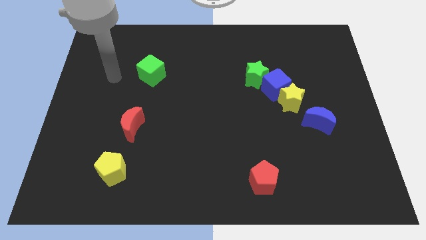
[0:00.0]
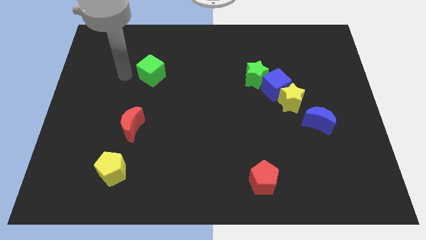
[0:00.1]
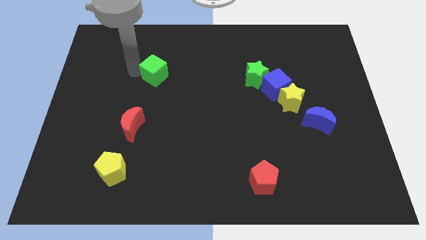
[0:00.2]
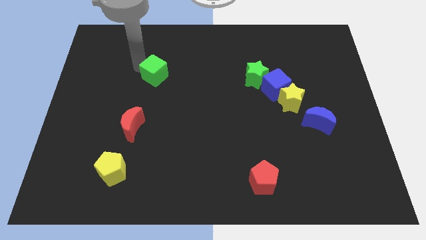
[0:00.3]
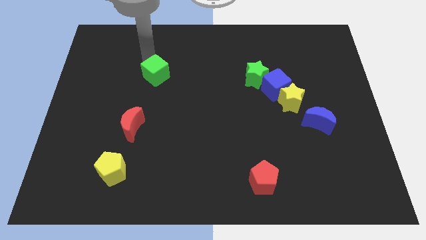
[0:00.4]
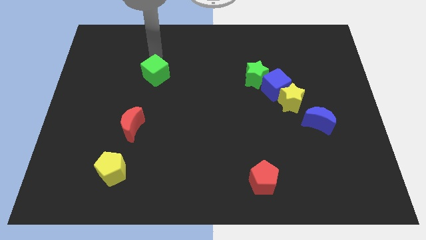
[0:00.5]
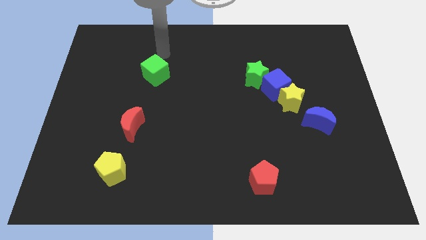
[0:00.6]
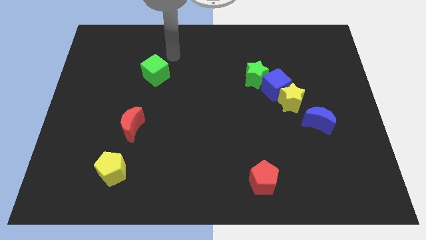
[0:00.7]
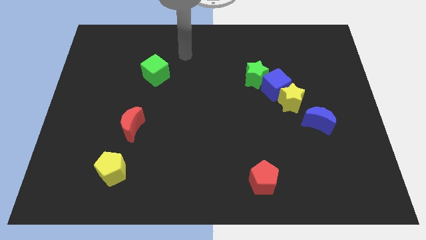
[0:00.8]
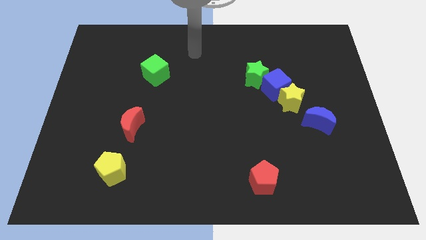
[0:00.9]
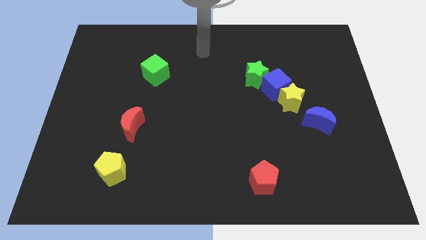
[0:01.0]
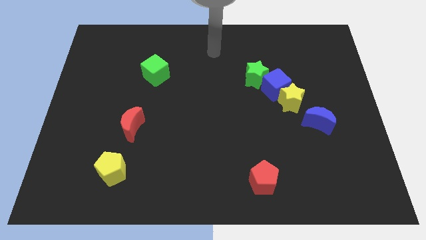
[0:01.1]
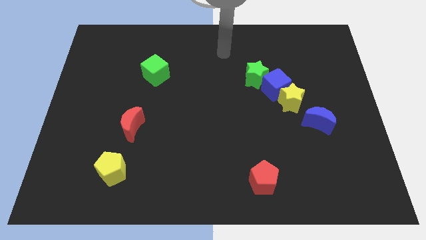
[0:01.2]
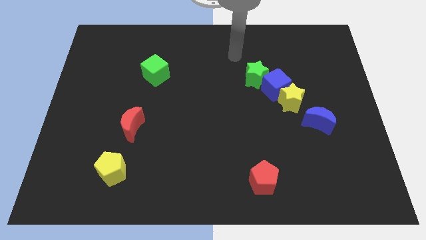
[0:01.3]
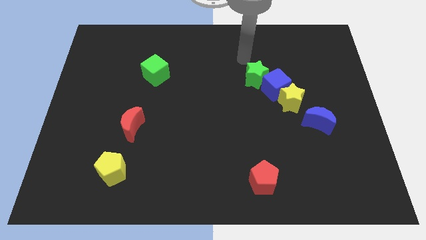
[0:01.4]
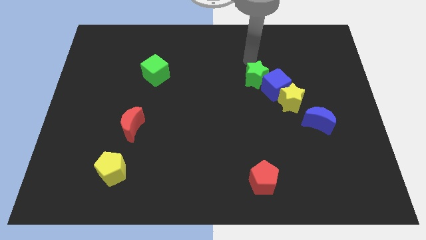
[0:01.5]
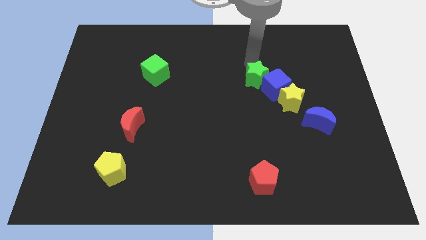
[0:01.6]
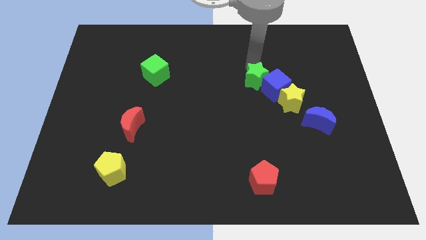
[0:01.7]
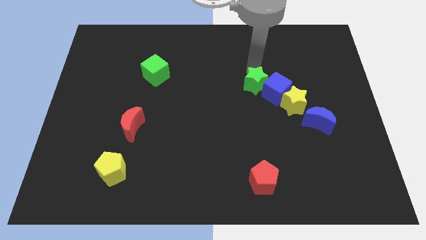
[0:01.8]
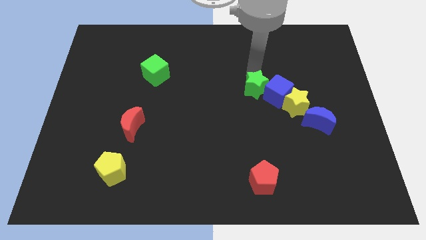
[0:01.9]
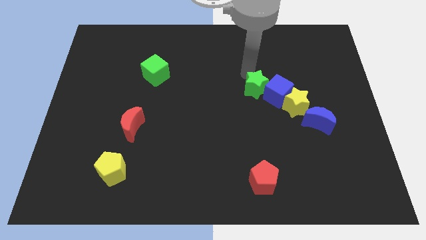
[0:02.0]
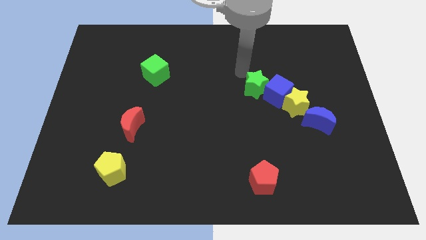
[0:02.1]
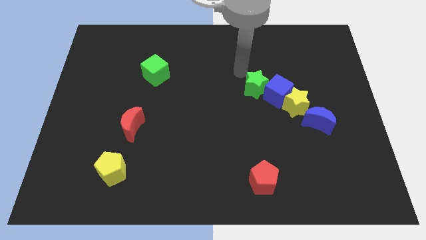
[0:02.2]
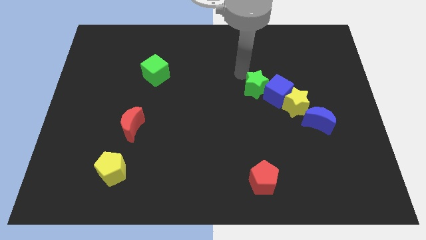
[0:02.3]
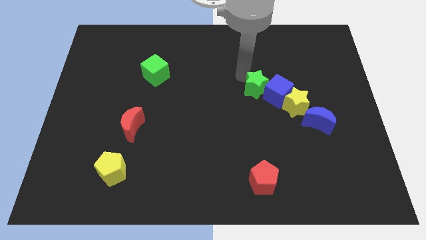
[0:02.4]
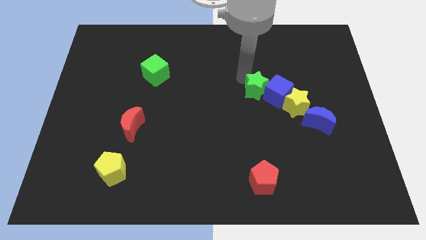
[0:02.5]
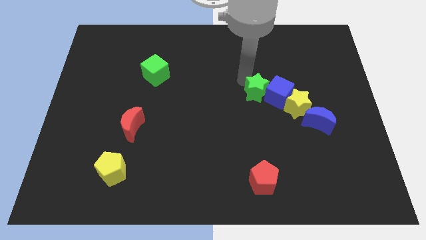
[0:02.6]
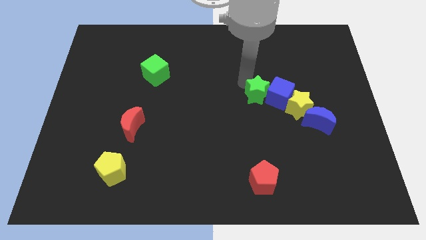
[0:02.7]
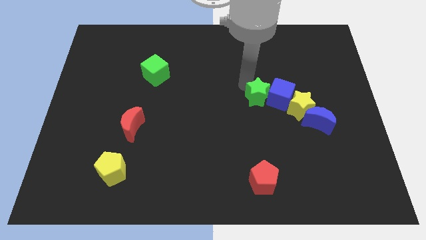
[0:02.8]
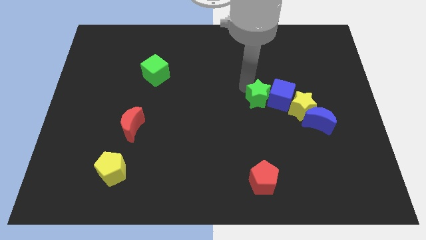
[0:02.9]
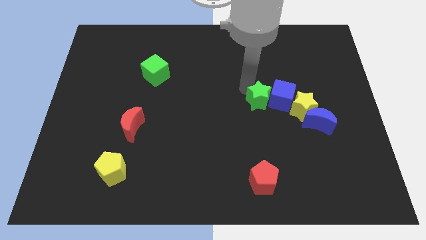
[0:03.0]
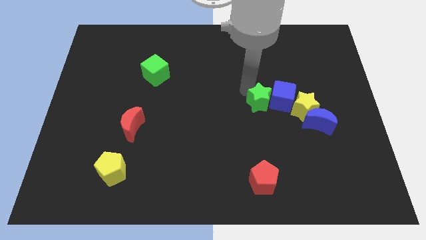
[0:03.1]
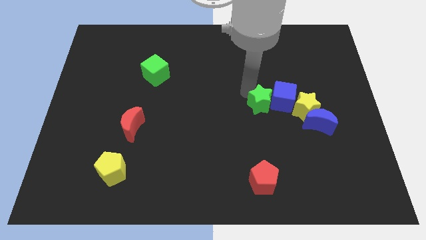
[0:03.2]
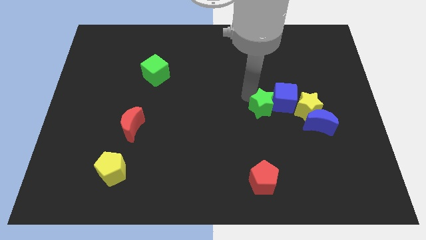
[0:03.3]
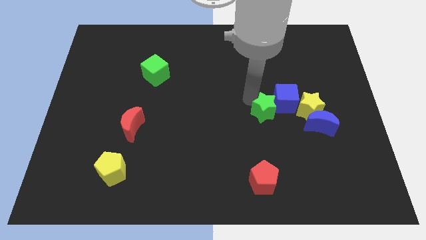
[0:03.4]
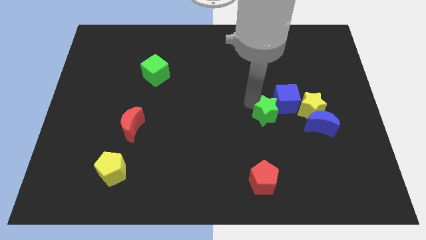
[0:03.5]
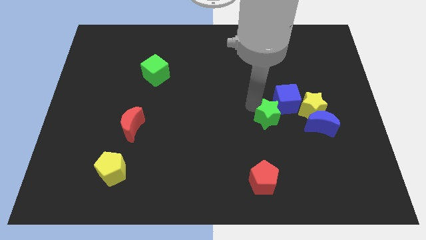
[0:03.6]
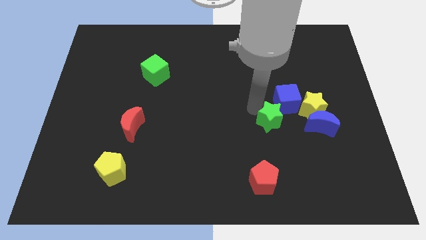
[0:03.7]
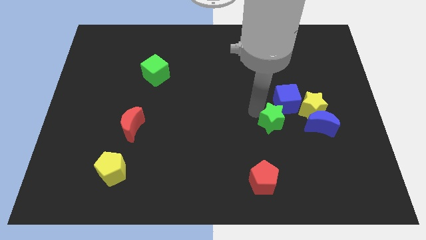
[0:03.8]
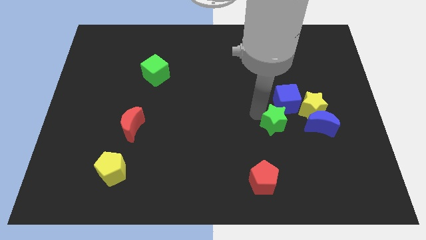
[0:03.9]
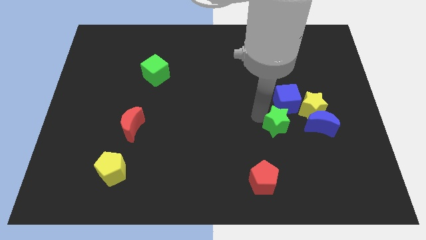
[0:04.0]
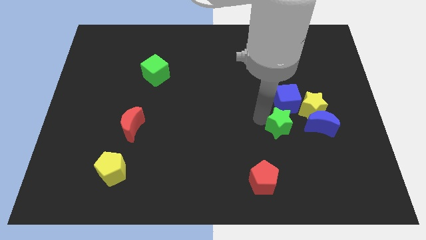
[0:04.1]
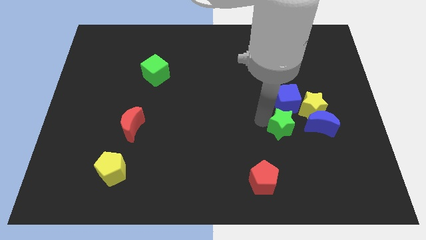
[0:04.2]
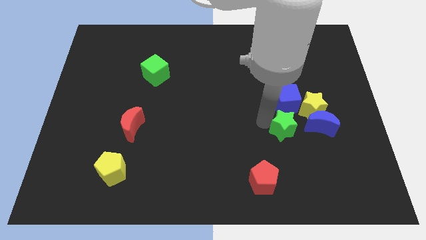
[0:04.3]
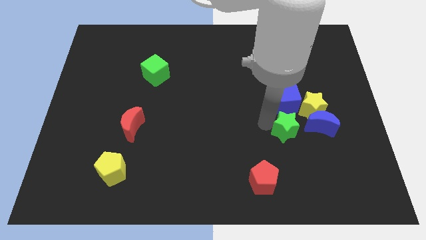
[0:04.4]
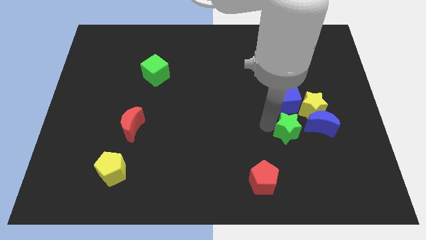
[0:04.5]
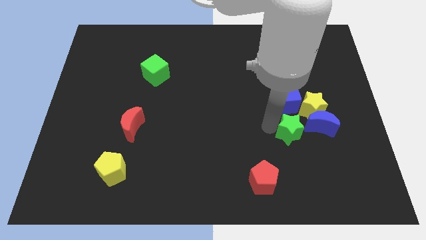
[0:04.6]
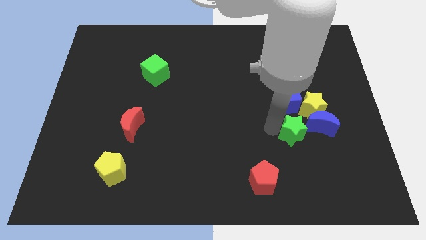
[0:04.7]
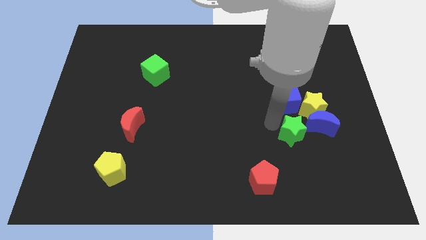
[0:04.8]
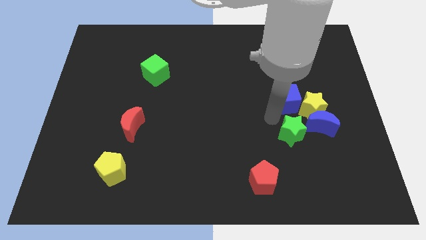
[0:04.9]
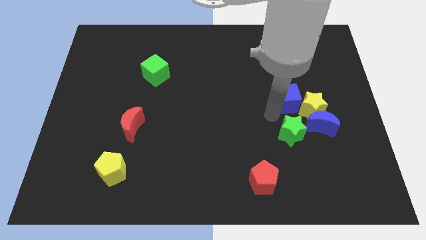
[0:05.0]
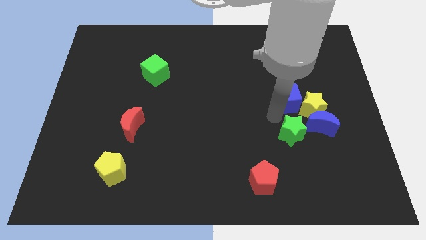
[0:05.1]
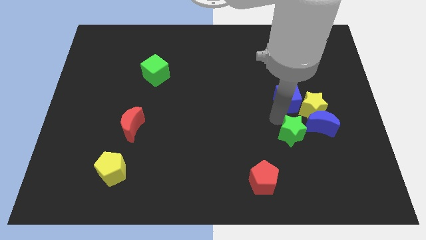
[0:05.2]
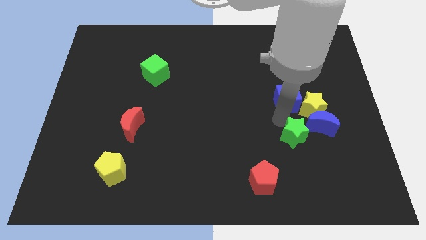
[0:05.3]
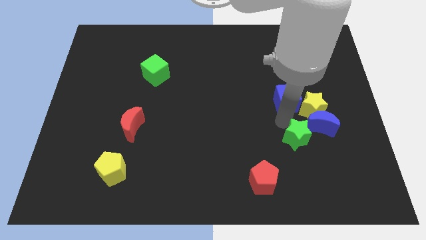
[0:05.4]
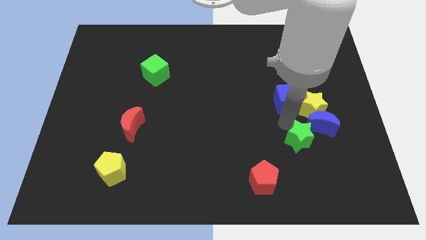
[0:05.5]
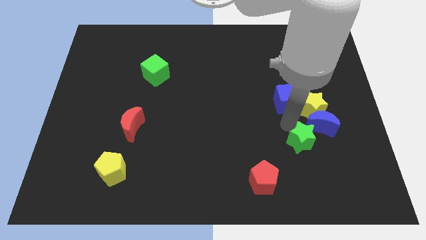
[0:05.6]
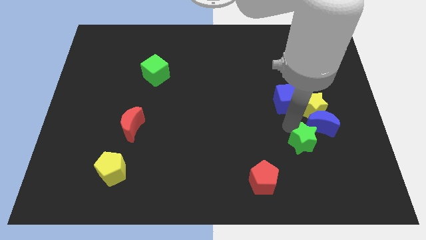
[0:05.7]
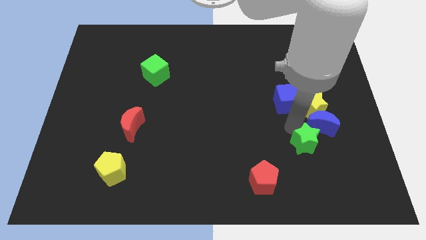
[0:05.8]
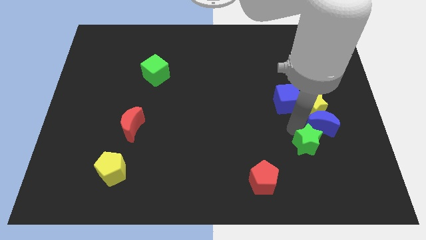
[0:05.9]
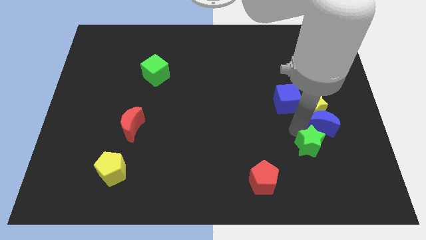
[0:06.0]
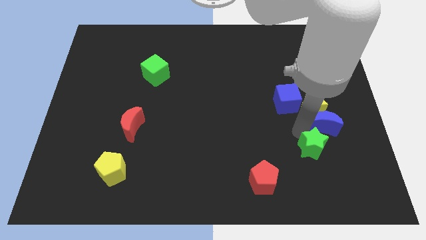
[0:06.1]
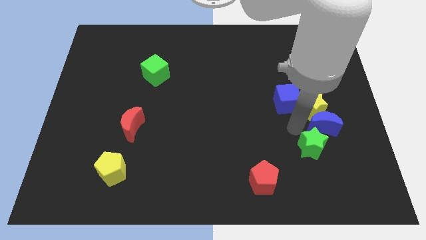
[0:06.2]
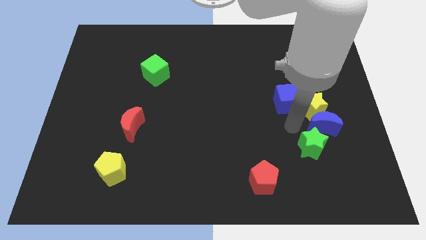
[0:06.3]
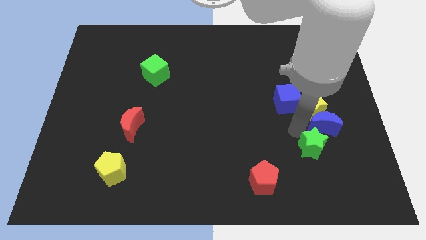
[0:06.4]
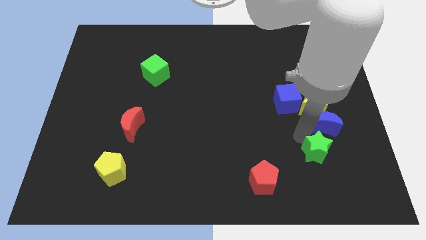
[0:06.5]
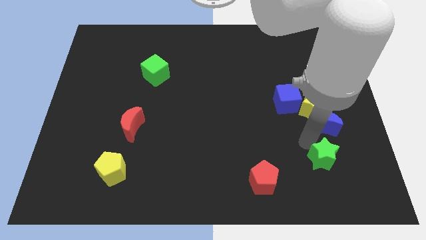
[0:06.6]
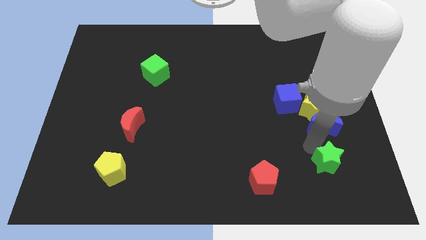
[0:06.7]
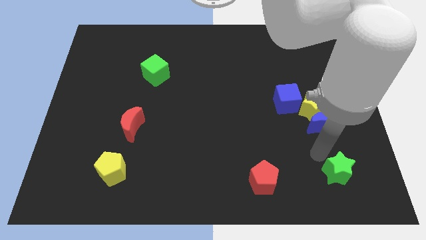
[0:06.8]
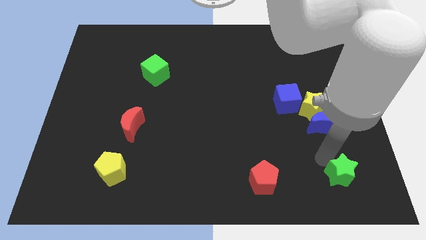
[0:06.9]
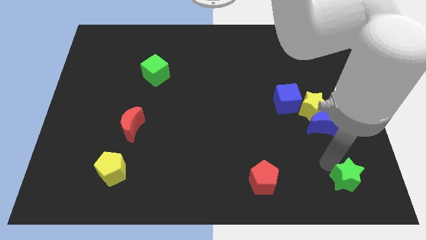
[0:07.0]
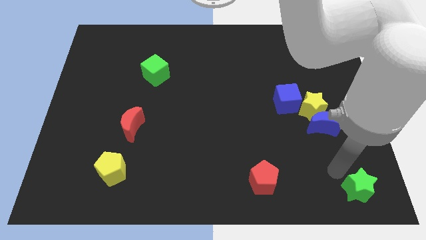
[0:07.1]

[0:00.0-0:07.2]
slide the green star to the bottom right of the board
